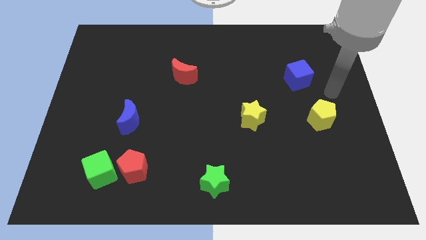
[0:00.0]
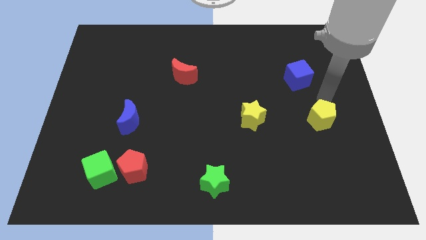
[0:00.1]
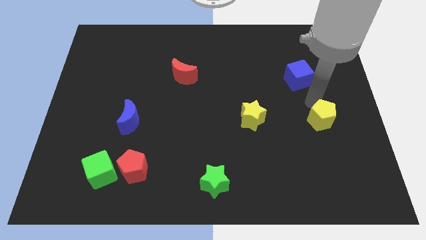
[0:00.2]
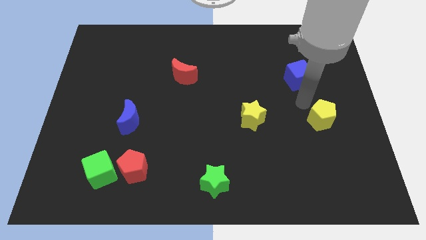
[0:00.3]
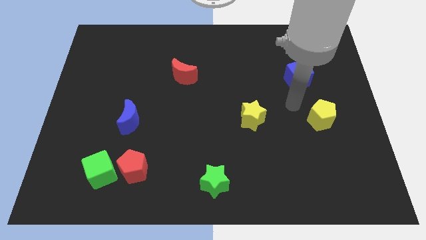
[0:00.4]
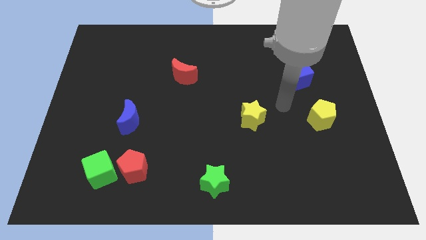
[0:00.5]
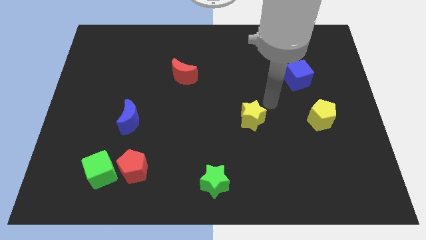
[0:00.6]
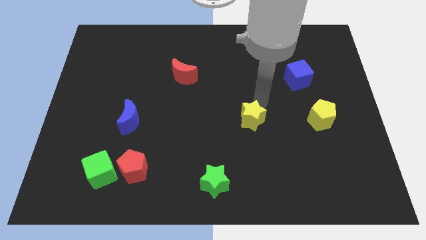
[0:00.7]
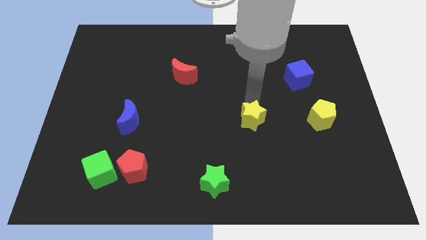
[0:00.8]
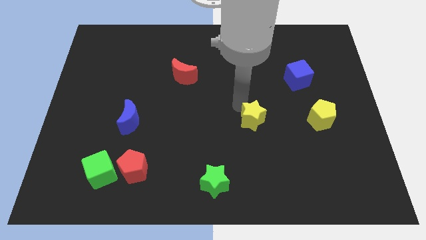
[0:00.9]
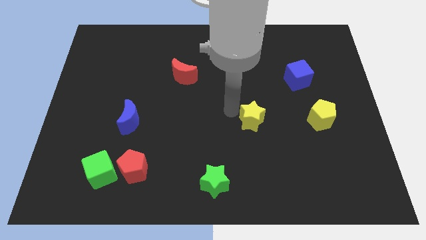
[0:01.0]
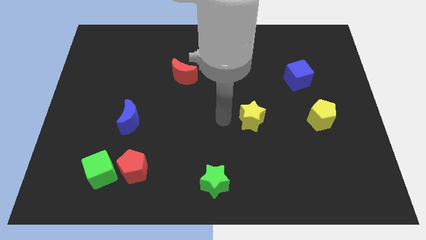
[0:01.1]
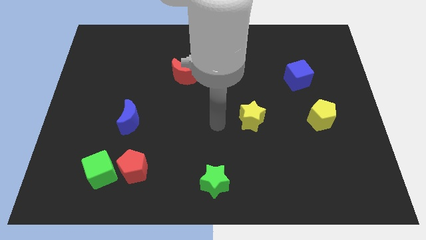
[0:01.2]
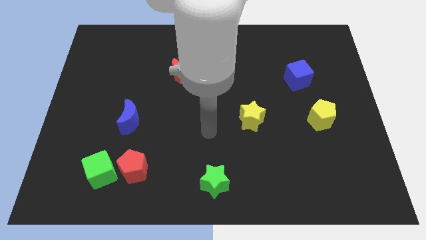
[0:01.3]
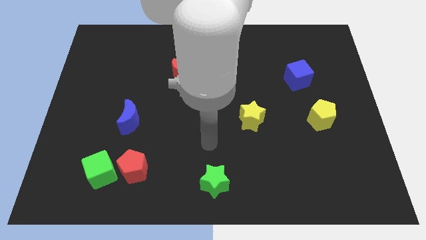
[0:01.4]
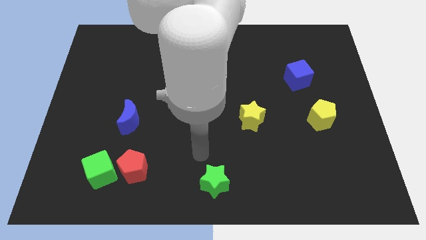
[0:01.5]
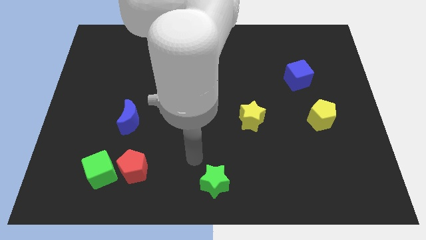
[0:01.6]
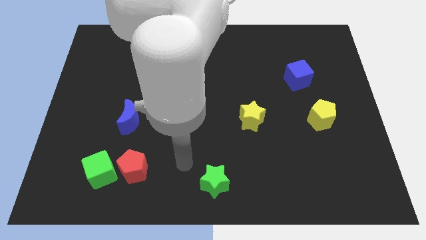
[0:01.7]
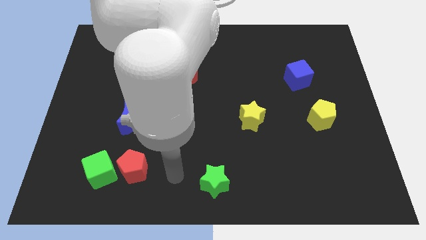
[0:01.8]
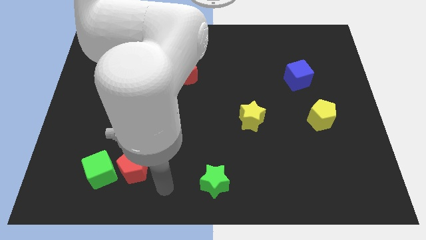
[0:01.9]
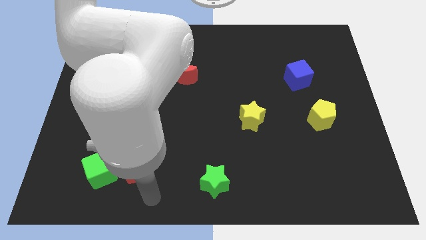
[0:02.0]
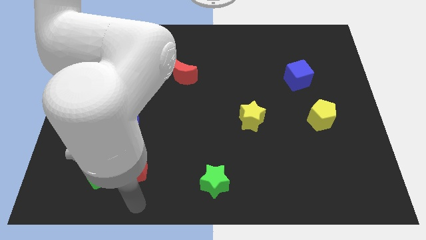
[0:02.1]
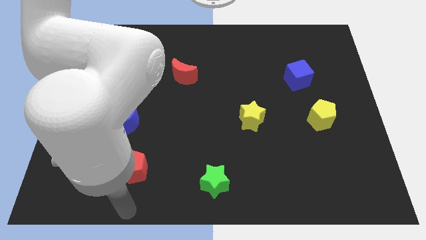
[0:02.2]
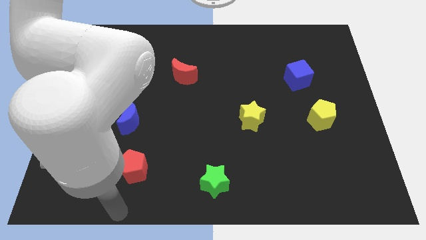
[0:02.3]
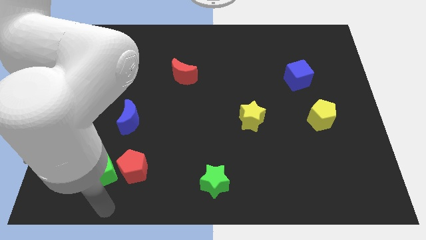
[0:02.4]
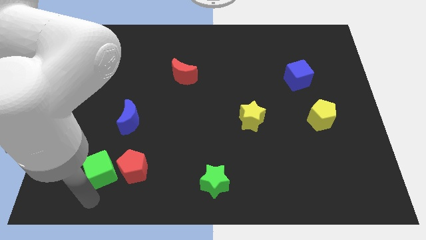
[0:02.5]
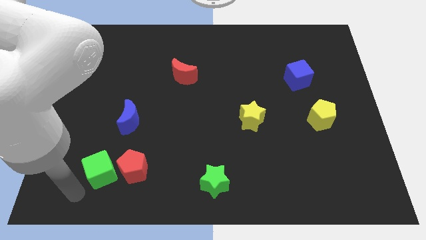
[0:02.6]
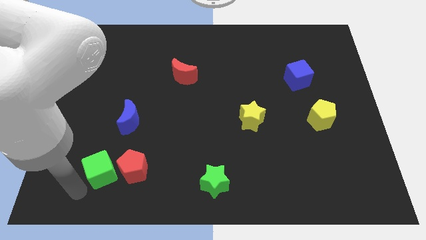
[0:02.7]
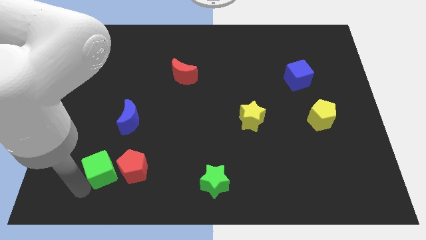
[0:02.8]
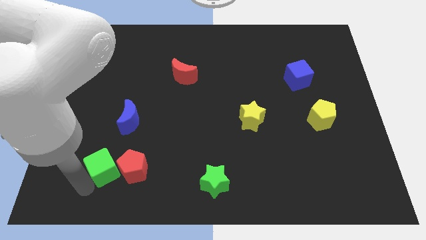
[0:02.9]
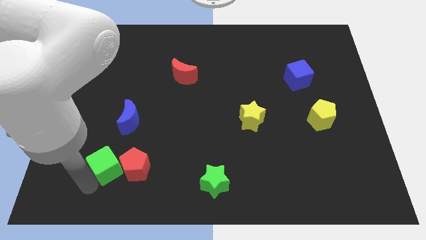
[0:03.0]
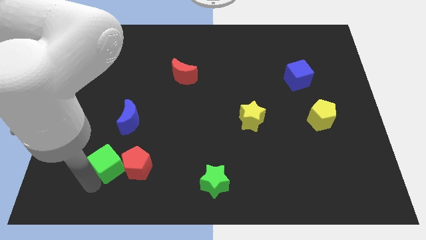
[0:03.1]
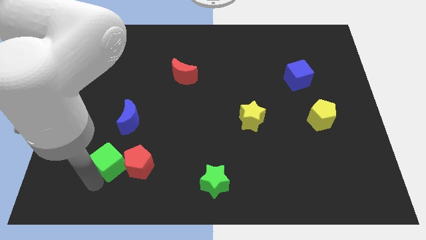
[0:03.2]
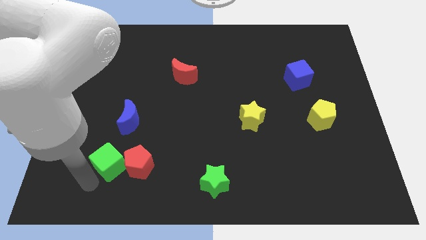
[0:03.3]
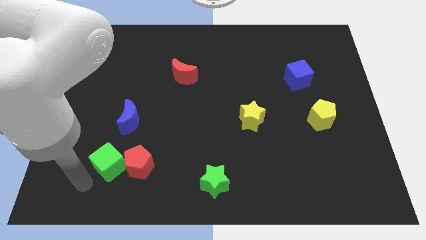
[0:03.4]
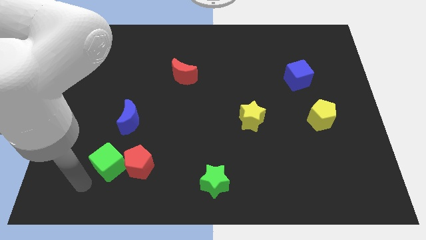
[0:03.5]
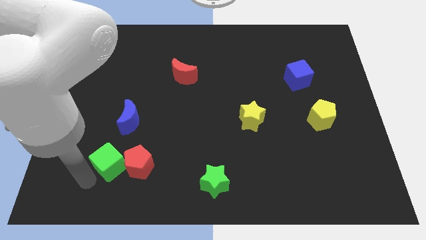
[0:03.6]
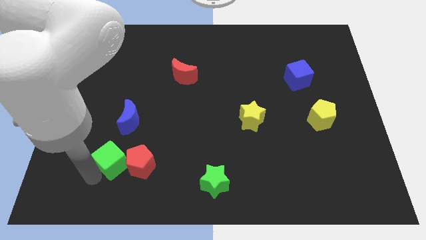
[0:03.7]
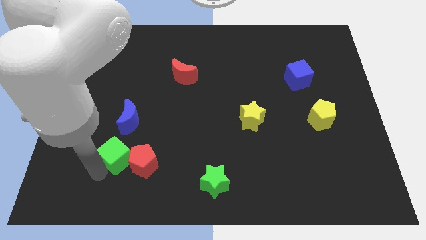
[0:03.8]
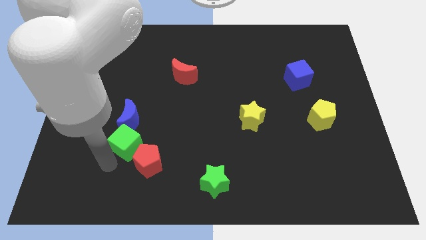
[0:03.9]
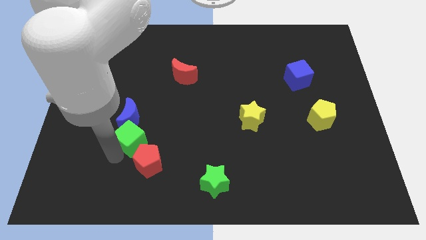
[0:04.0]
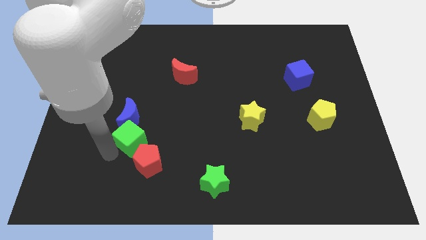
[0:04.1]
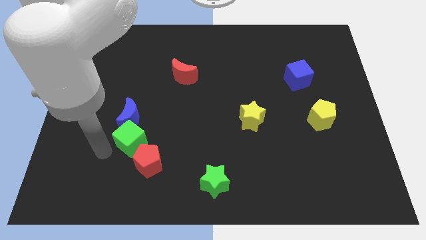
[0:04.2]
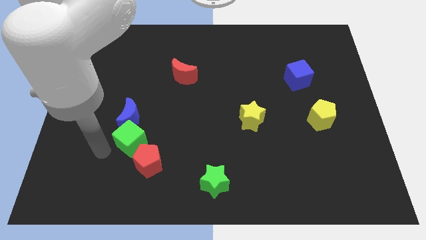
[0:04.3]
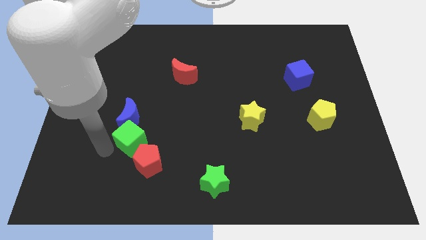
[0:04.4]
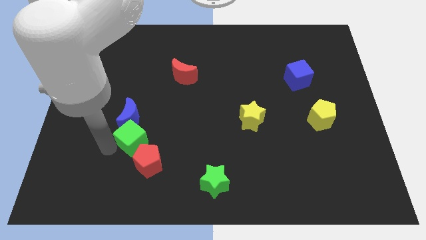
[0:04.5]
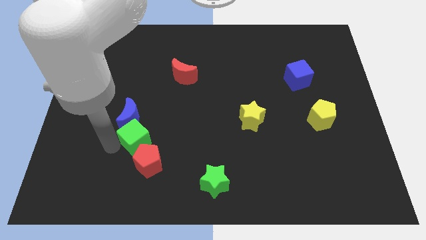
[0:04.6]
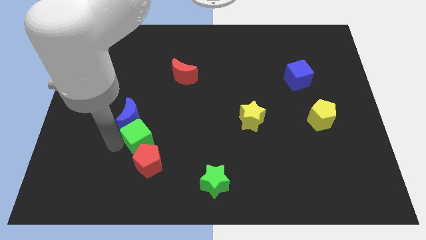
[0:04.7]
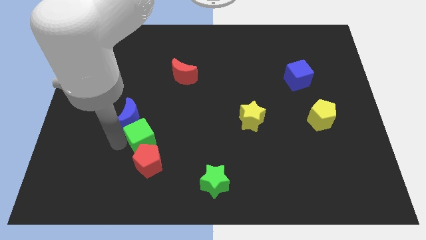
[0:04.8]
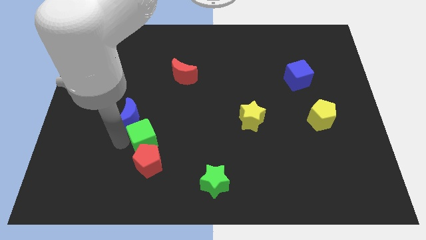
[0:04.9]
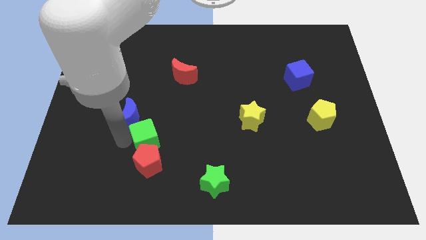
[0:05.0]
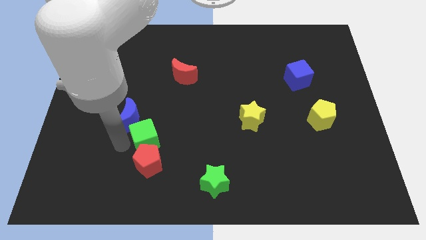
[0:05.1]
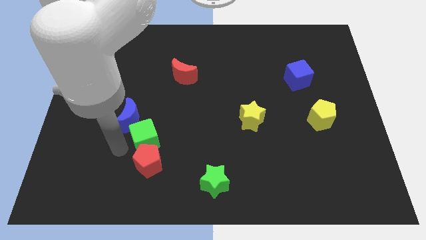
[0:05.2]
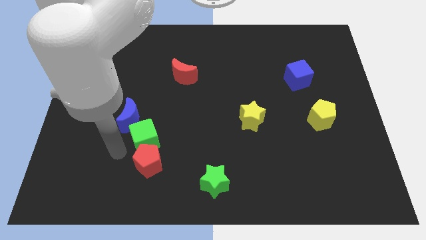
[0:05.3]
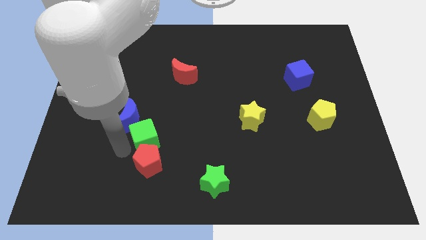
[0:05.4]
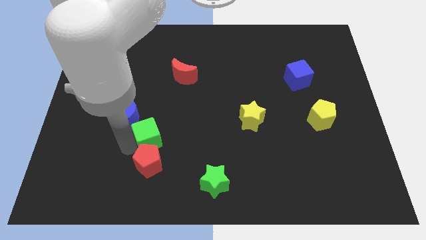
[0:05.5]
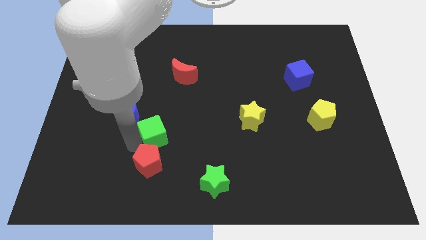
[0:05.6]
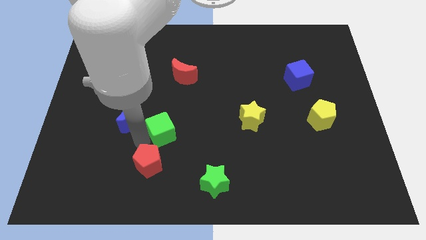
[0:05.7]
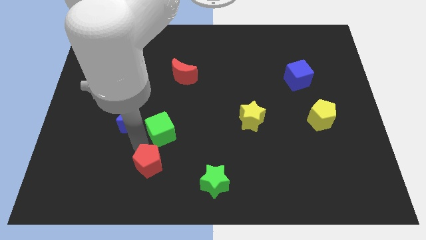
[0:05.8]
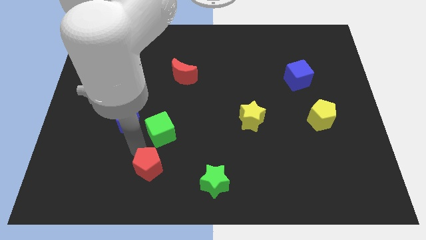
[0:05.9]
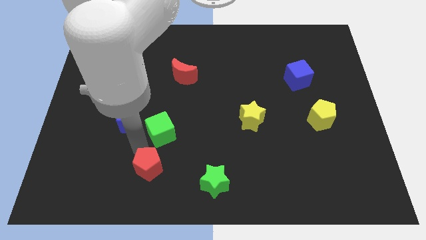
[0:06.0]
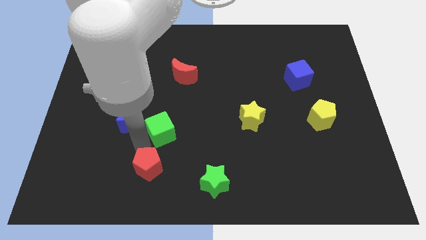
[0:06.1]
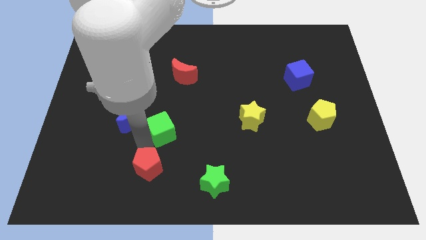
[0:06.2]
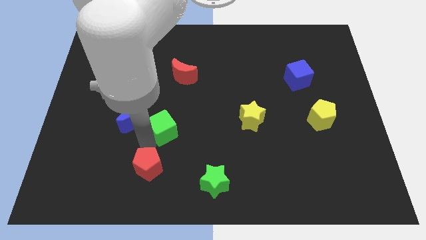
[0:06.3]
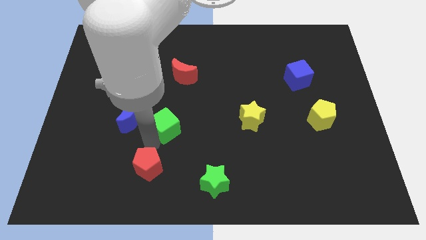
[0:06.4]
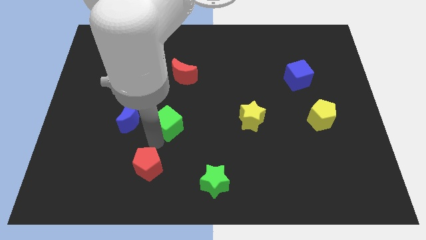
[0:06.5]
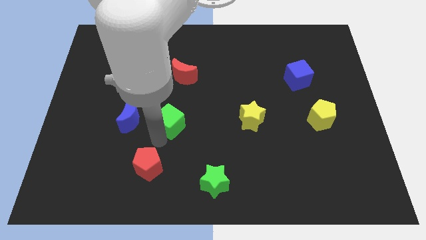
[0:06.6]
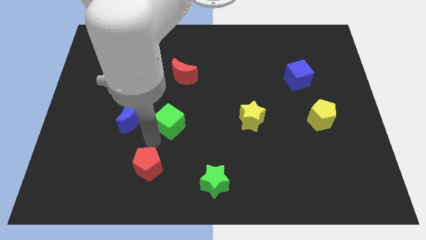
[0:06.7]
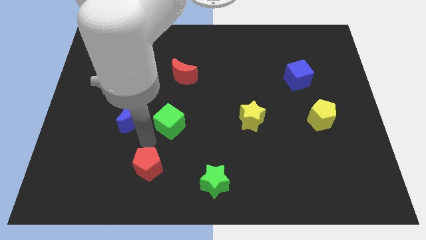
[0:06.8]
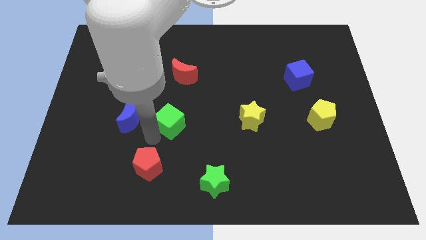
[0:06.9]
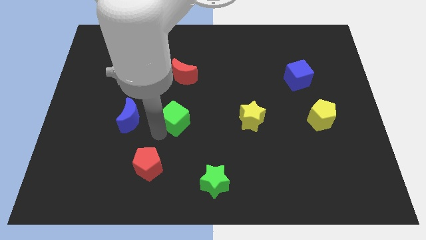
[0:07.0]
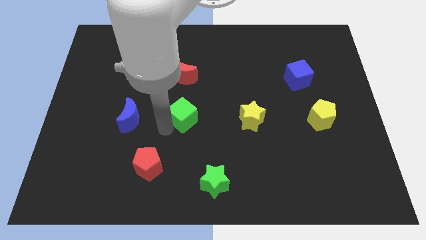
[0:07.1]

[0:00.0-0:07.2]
move the green cube upwards and to the right diagonally

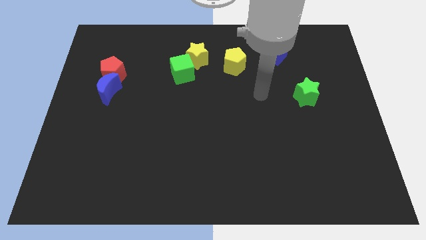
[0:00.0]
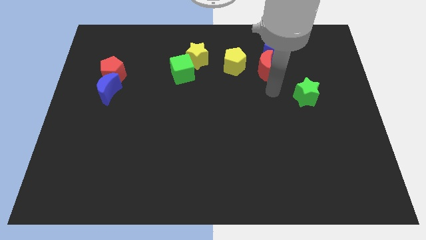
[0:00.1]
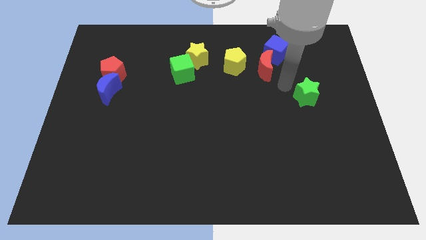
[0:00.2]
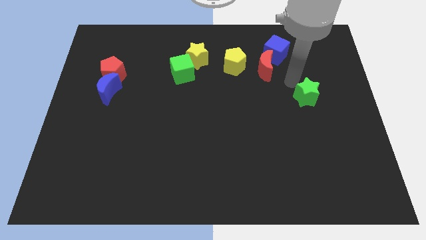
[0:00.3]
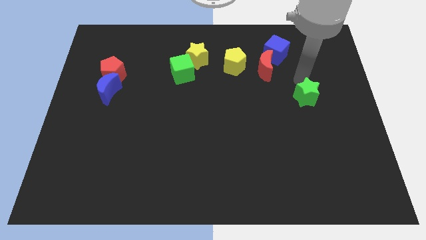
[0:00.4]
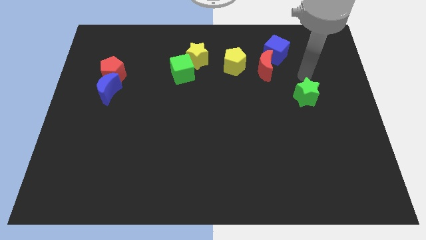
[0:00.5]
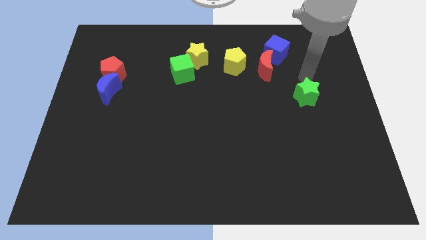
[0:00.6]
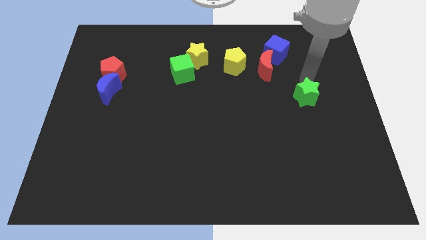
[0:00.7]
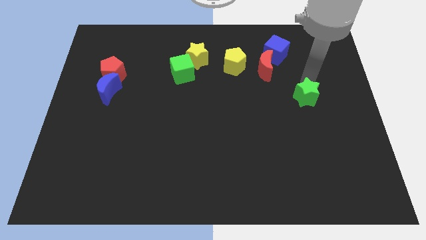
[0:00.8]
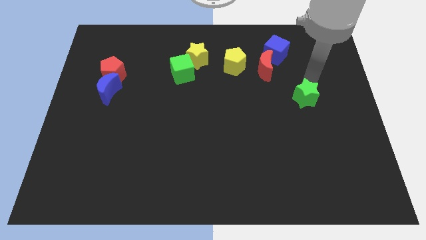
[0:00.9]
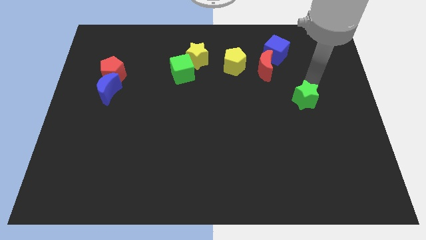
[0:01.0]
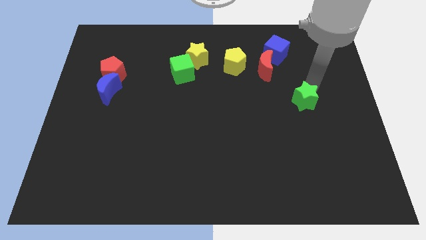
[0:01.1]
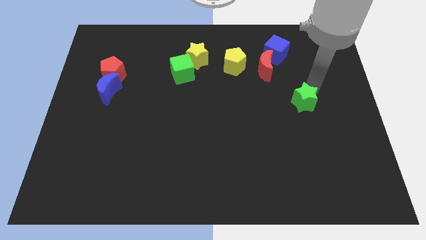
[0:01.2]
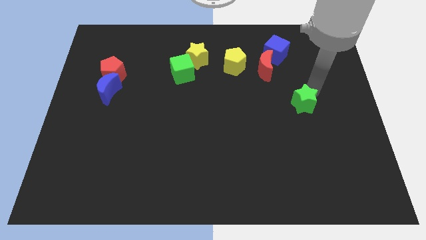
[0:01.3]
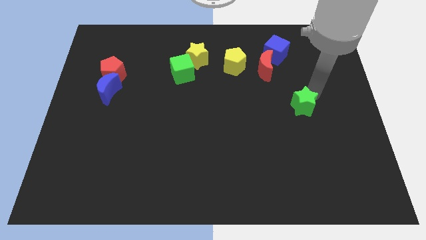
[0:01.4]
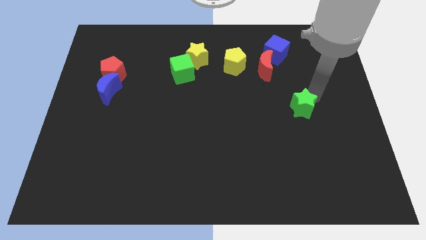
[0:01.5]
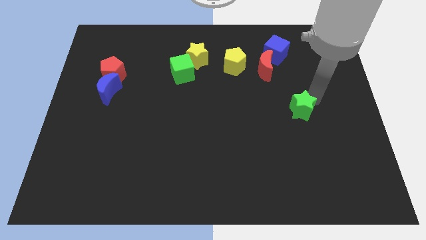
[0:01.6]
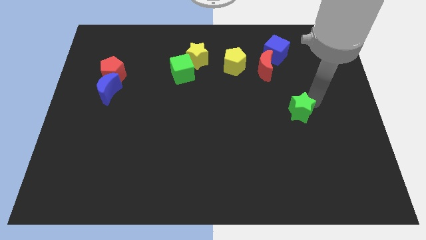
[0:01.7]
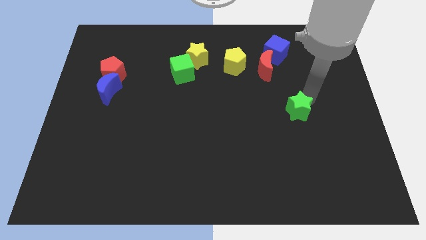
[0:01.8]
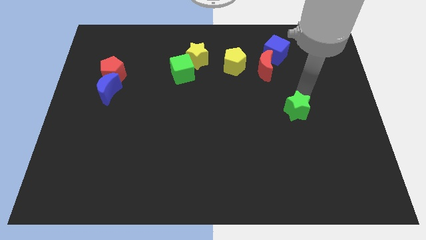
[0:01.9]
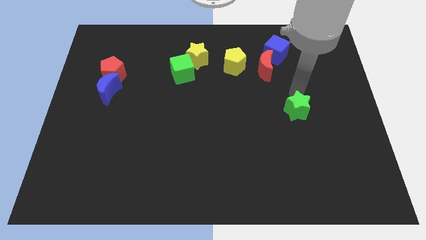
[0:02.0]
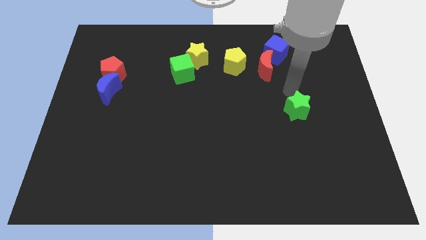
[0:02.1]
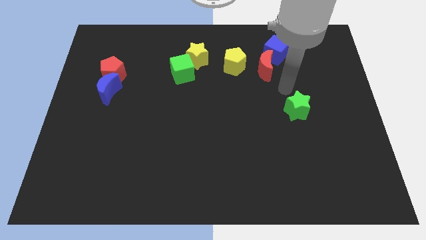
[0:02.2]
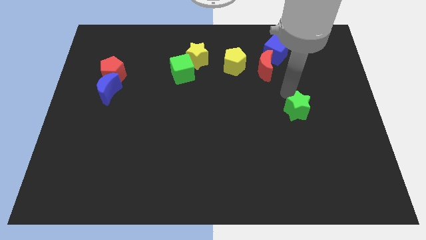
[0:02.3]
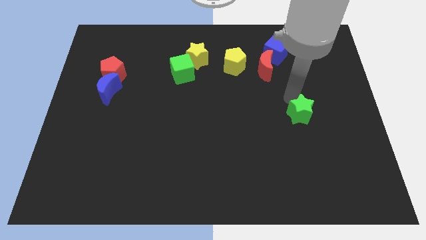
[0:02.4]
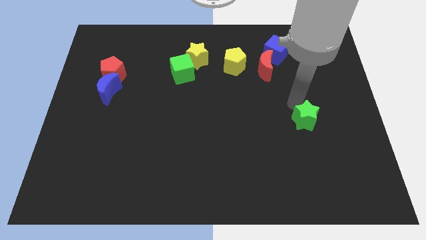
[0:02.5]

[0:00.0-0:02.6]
slightly slide the green star down
